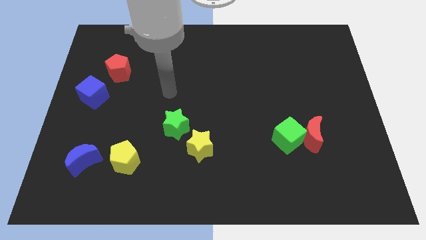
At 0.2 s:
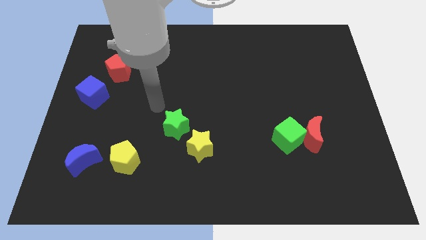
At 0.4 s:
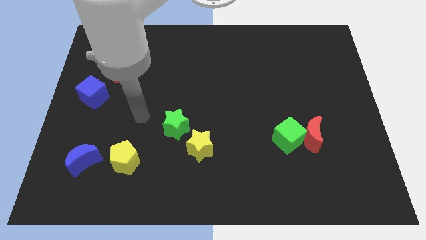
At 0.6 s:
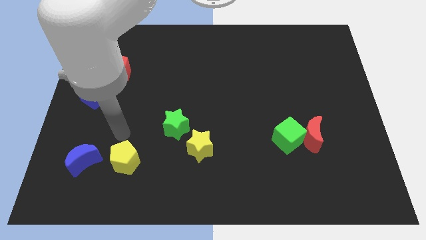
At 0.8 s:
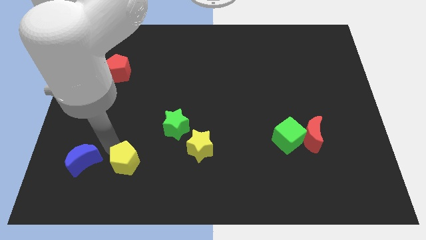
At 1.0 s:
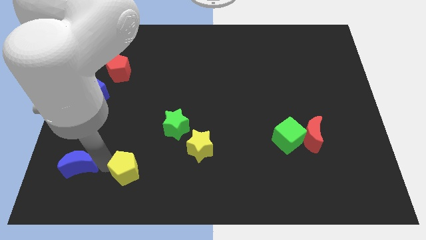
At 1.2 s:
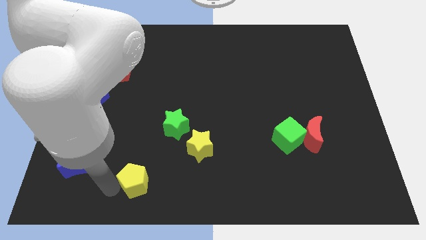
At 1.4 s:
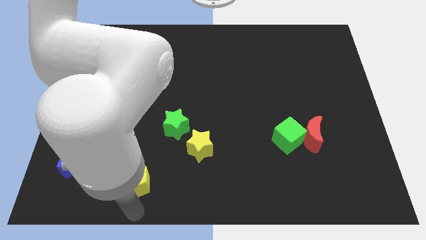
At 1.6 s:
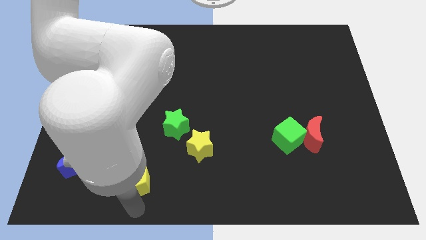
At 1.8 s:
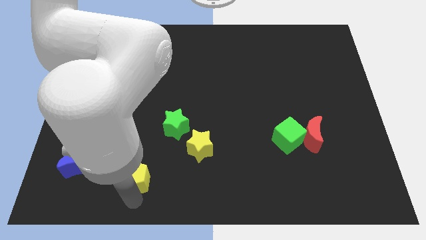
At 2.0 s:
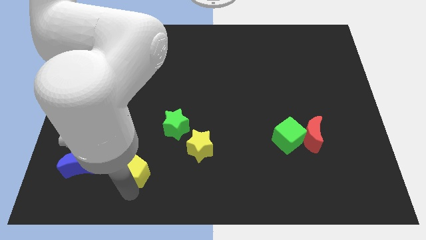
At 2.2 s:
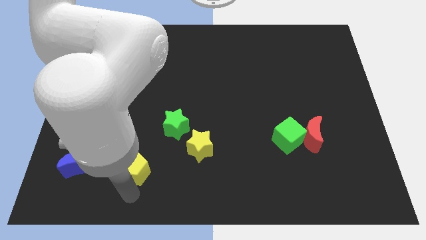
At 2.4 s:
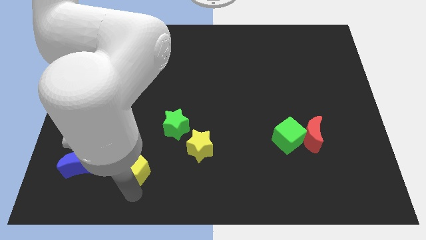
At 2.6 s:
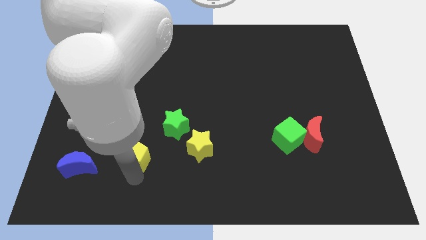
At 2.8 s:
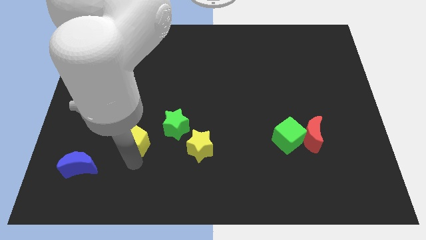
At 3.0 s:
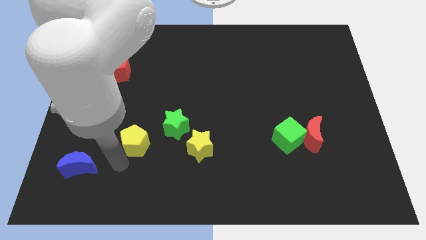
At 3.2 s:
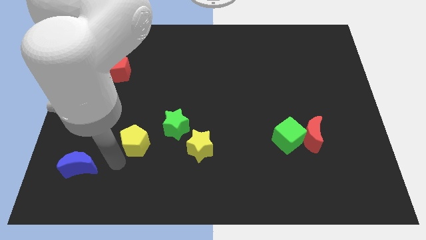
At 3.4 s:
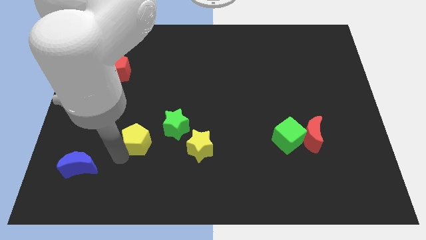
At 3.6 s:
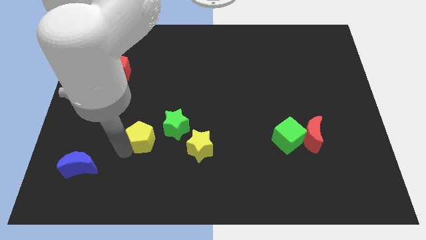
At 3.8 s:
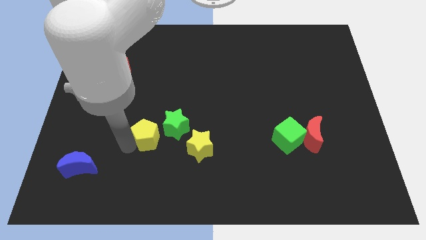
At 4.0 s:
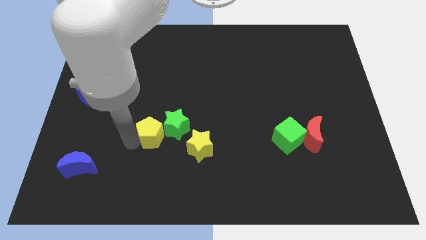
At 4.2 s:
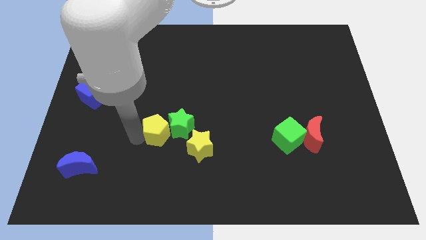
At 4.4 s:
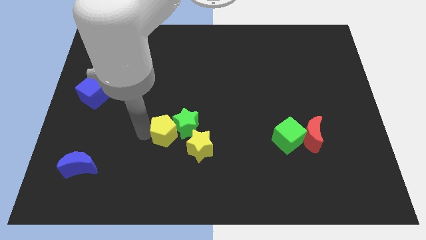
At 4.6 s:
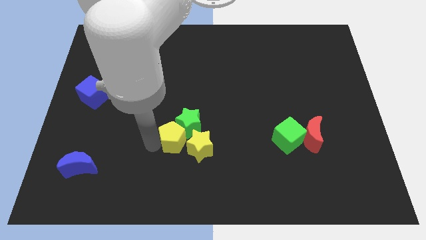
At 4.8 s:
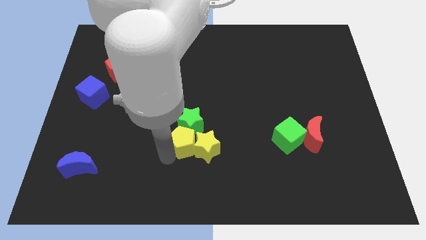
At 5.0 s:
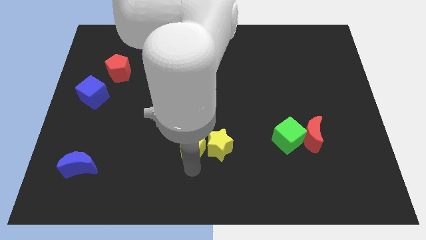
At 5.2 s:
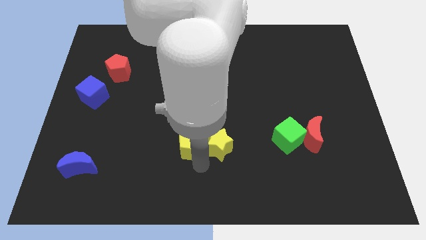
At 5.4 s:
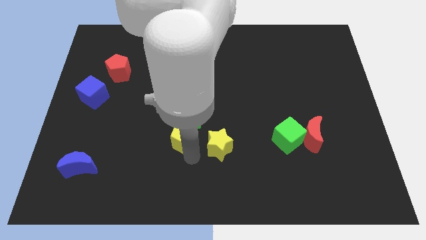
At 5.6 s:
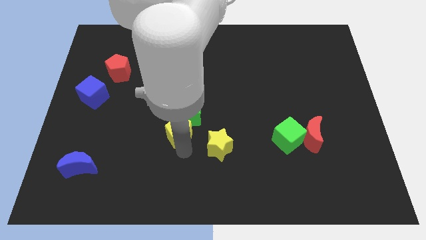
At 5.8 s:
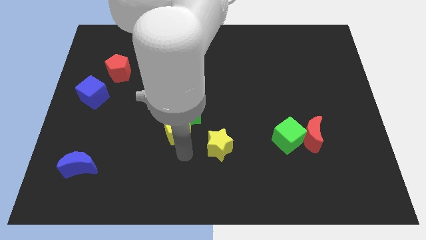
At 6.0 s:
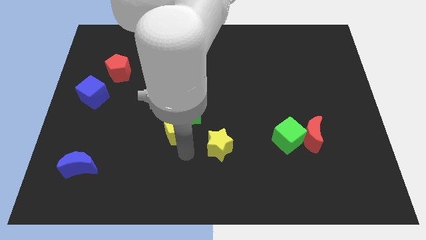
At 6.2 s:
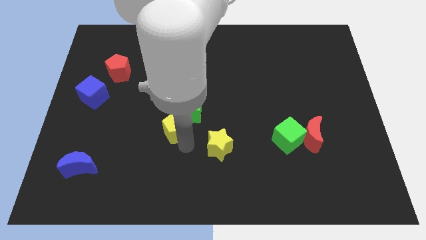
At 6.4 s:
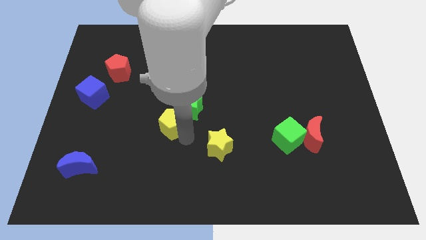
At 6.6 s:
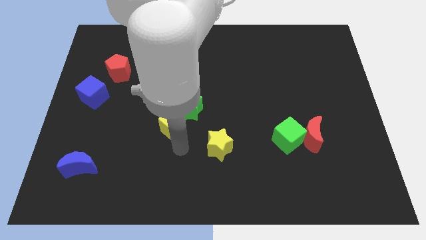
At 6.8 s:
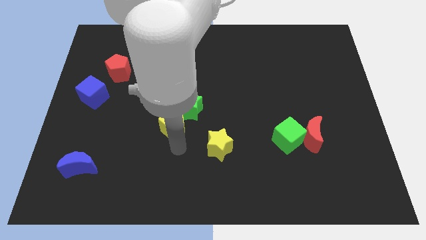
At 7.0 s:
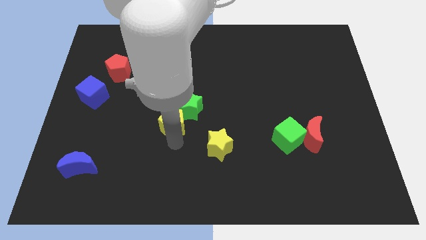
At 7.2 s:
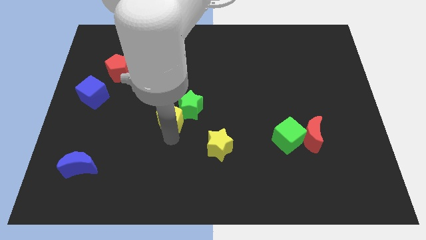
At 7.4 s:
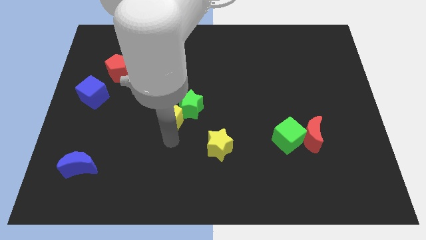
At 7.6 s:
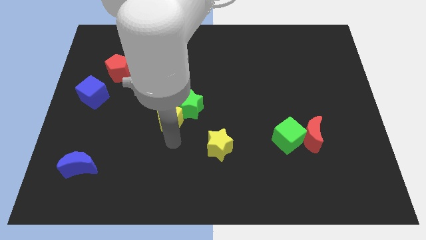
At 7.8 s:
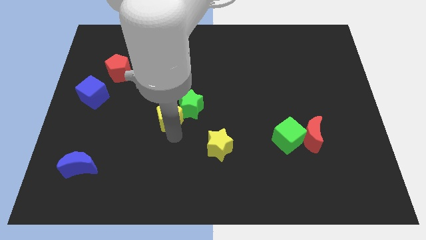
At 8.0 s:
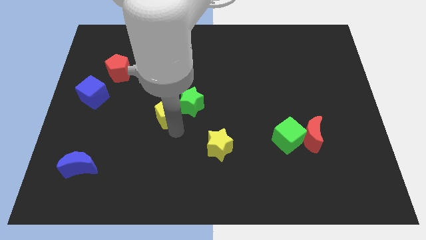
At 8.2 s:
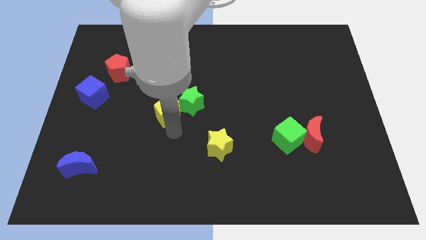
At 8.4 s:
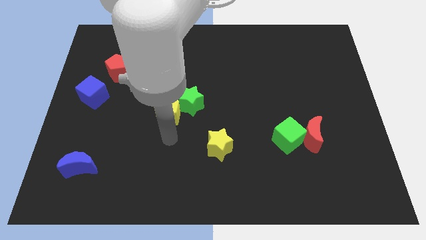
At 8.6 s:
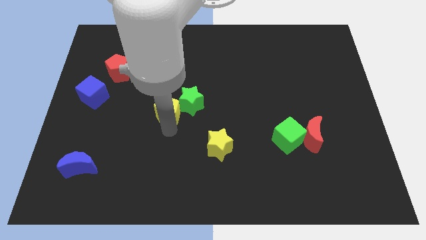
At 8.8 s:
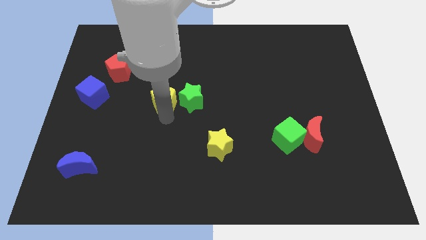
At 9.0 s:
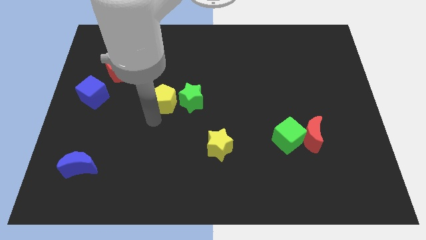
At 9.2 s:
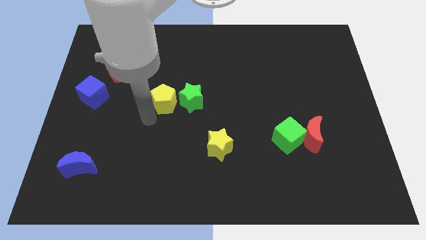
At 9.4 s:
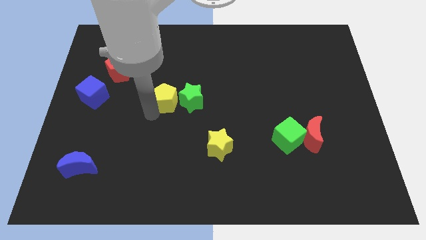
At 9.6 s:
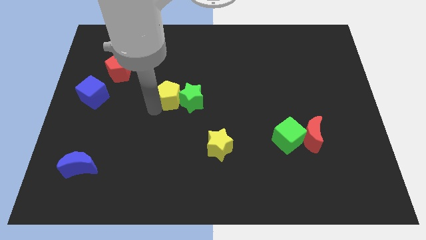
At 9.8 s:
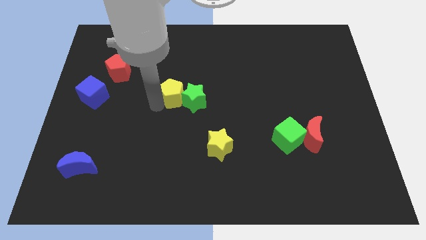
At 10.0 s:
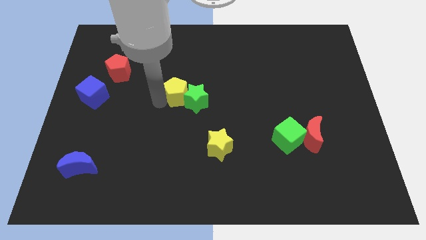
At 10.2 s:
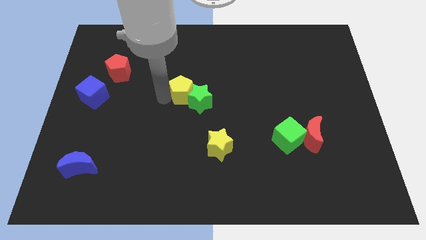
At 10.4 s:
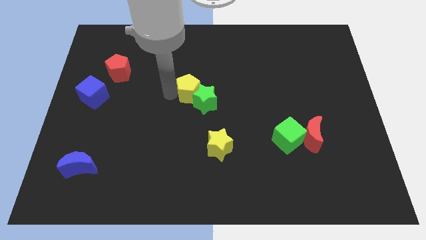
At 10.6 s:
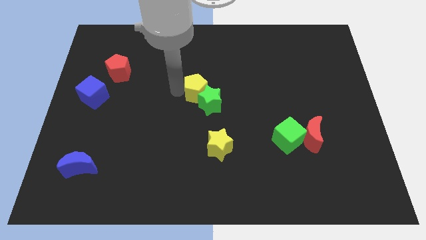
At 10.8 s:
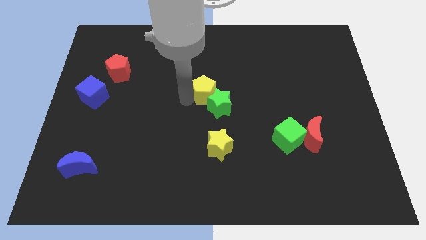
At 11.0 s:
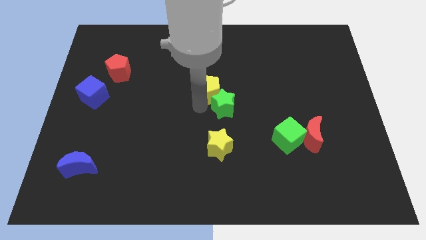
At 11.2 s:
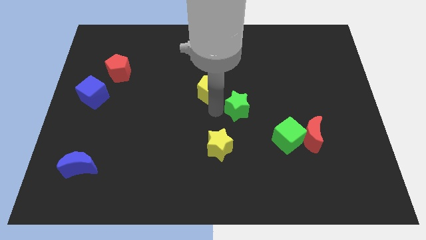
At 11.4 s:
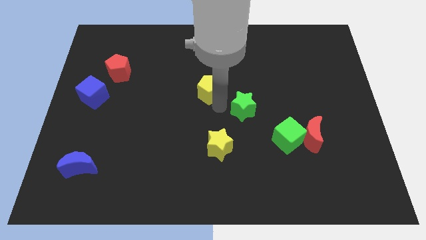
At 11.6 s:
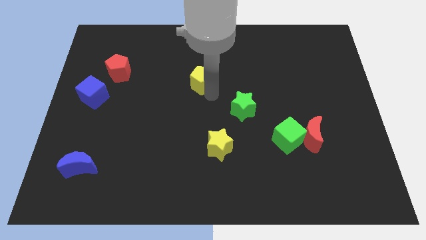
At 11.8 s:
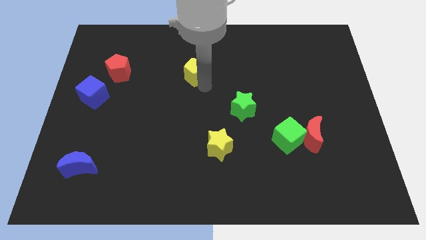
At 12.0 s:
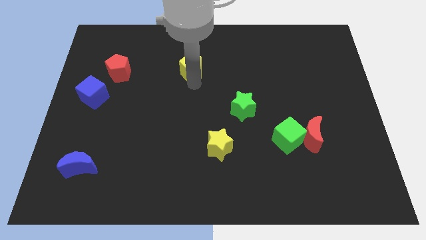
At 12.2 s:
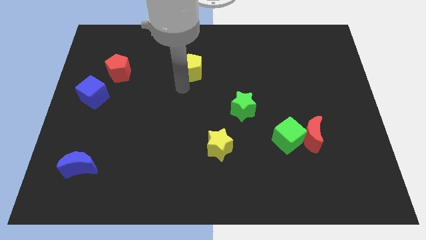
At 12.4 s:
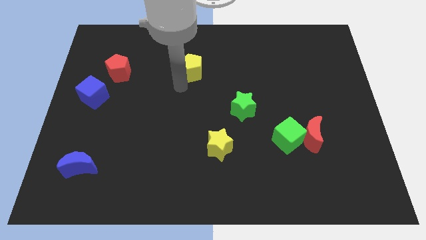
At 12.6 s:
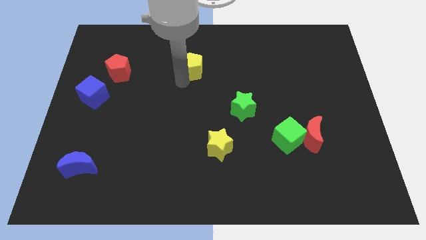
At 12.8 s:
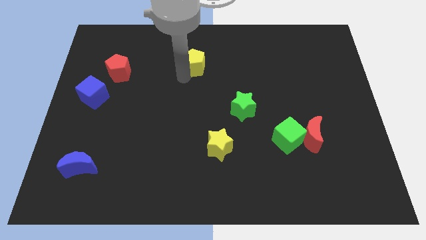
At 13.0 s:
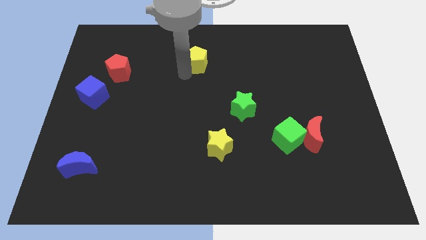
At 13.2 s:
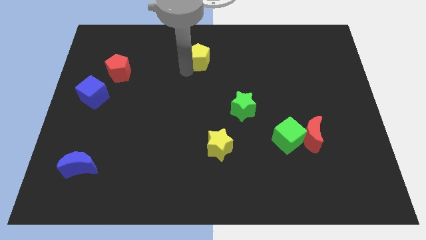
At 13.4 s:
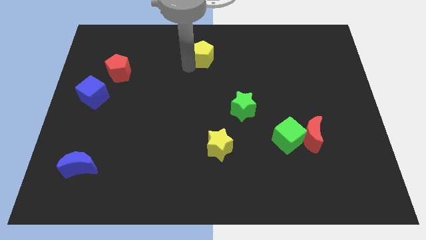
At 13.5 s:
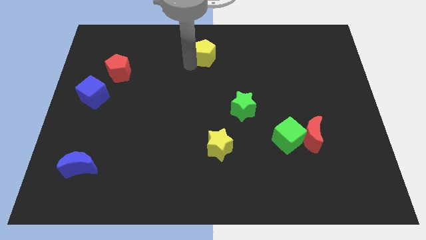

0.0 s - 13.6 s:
move the yellow pentagon to the towards your base

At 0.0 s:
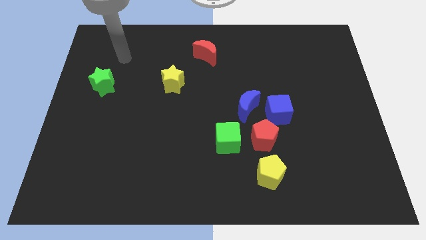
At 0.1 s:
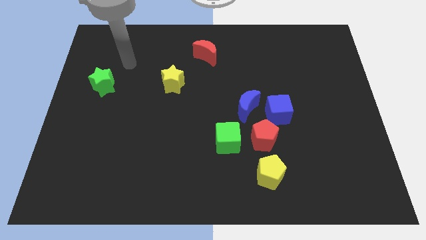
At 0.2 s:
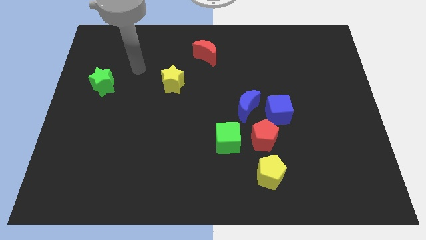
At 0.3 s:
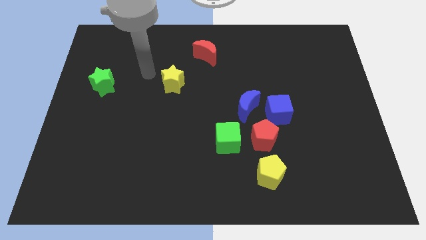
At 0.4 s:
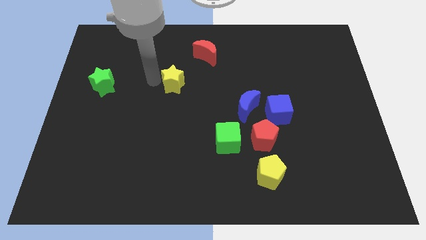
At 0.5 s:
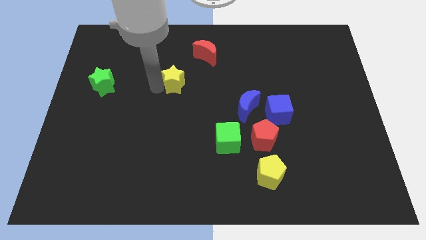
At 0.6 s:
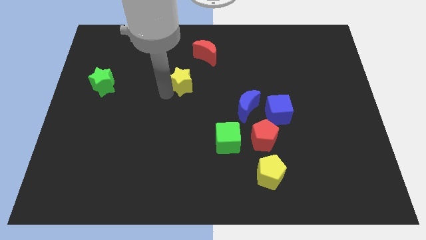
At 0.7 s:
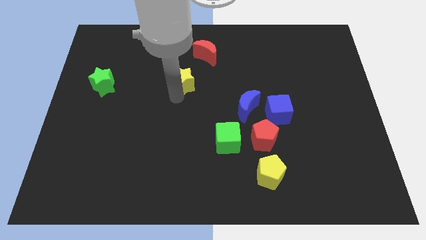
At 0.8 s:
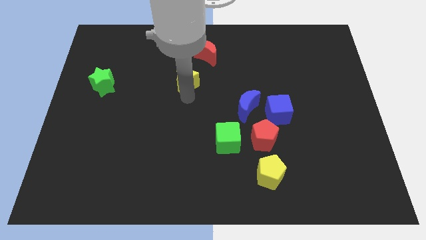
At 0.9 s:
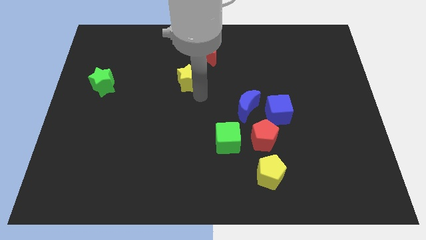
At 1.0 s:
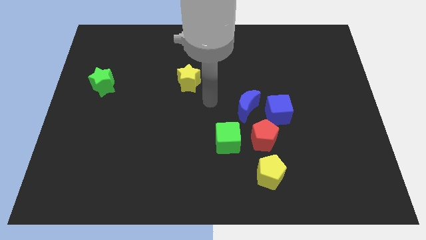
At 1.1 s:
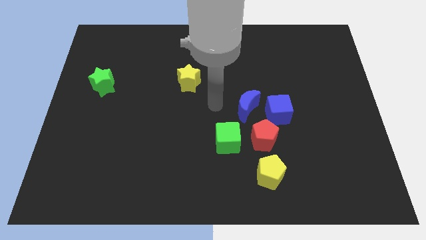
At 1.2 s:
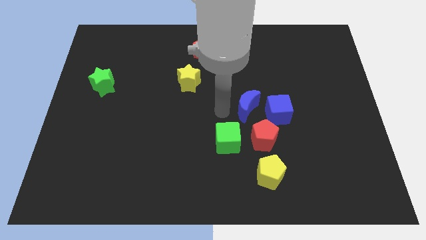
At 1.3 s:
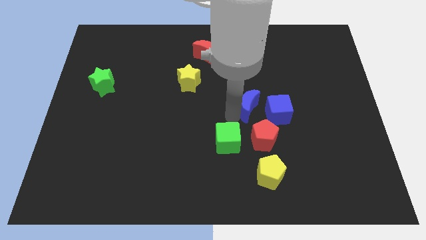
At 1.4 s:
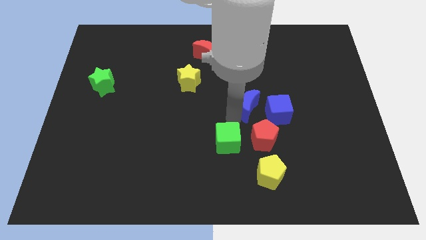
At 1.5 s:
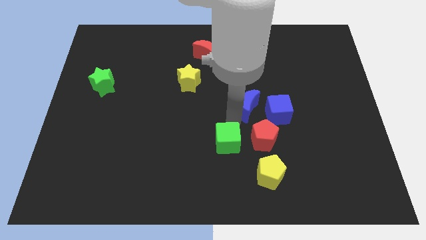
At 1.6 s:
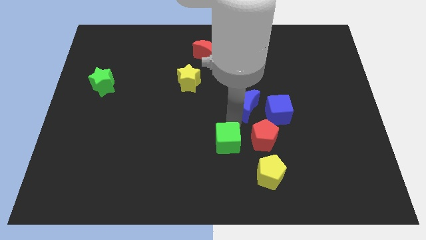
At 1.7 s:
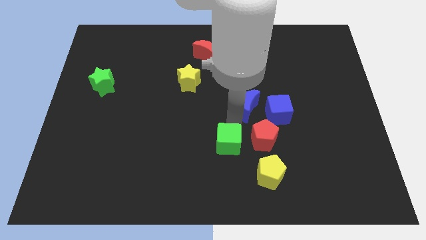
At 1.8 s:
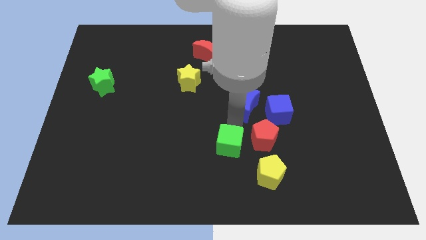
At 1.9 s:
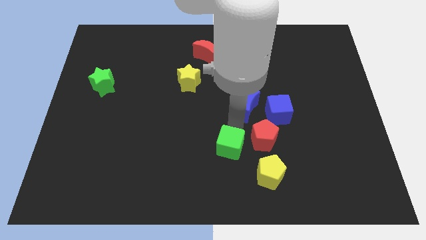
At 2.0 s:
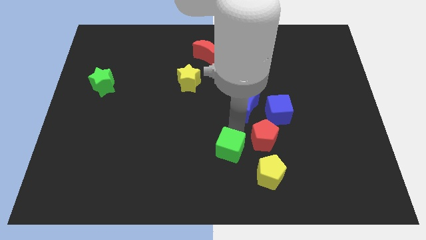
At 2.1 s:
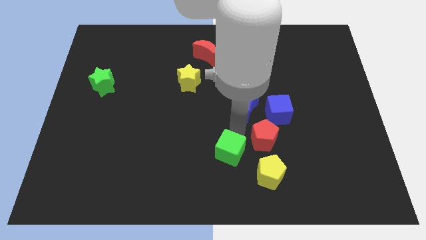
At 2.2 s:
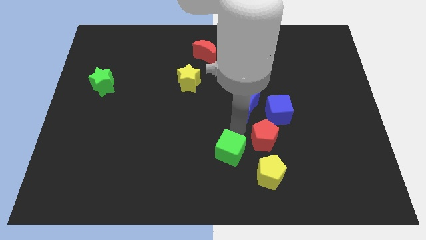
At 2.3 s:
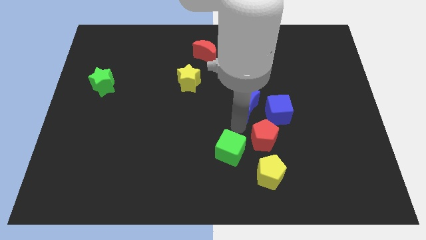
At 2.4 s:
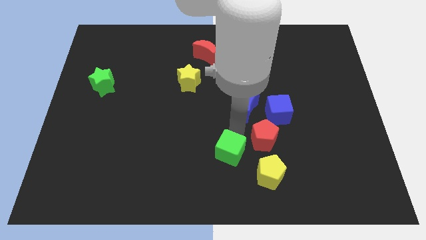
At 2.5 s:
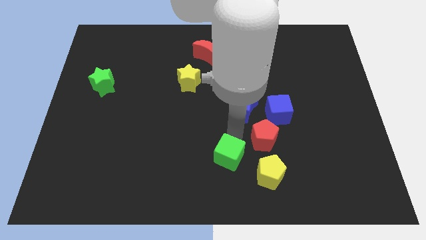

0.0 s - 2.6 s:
push the green cube to the bottom
